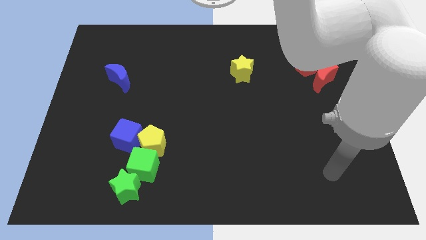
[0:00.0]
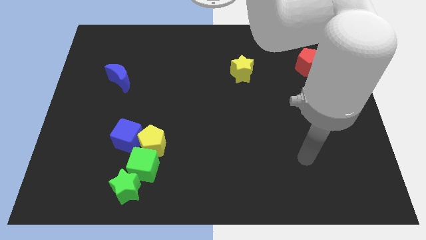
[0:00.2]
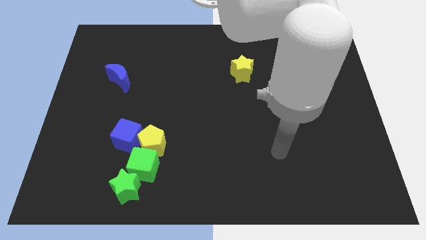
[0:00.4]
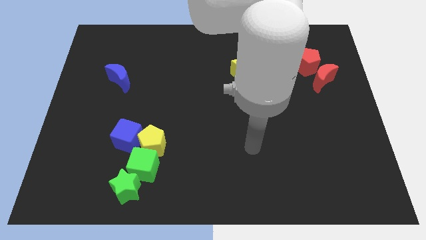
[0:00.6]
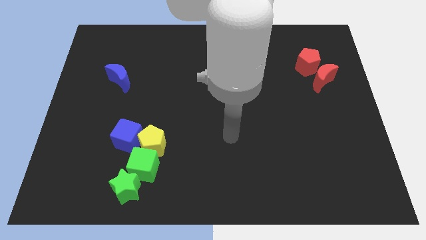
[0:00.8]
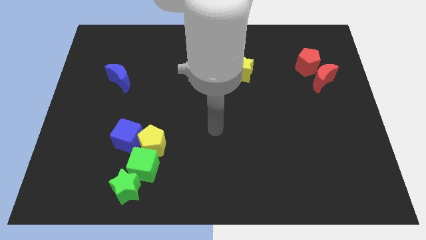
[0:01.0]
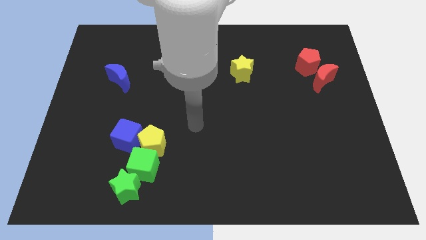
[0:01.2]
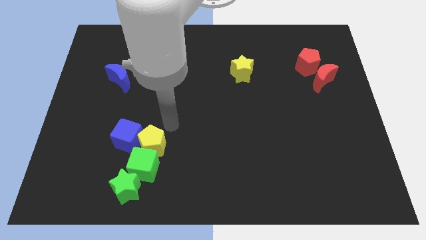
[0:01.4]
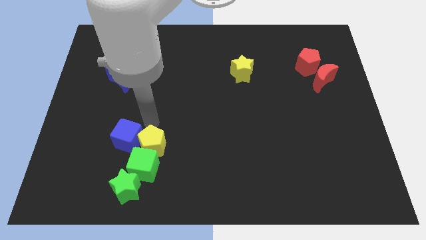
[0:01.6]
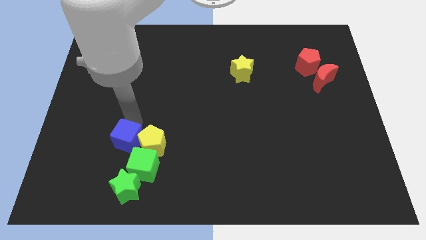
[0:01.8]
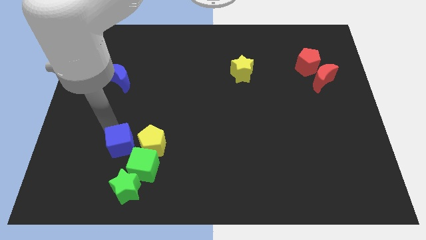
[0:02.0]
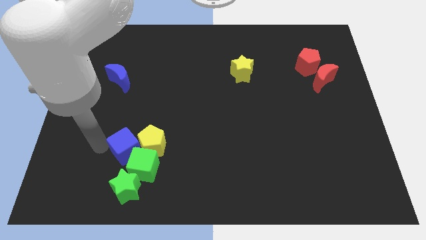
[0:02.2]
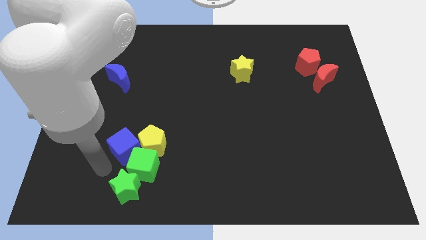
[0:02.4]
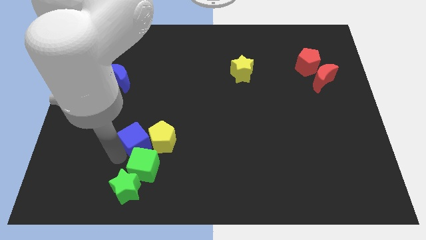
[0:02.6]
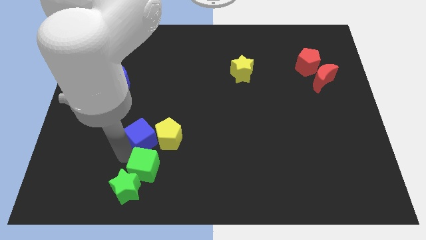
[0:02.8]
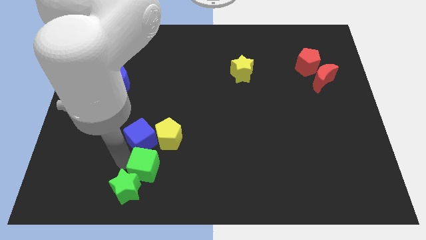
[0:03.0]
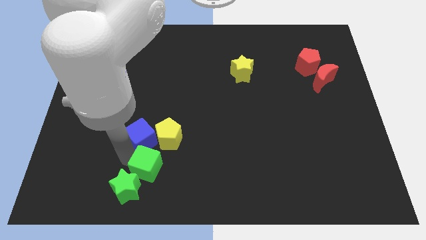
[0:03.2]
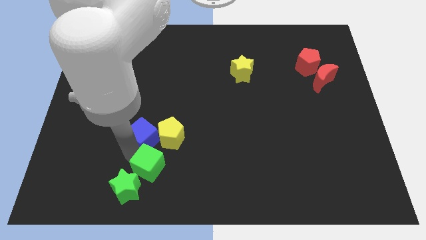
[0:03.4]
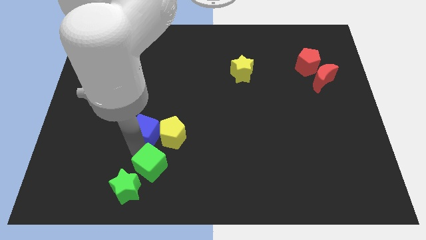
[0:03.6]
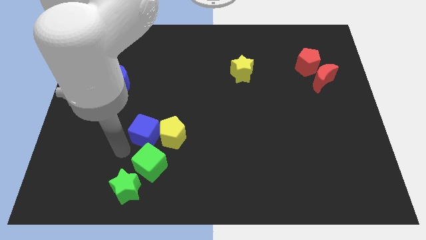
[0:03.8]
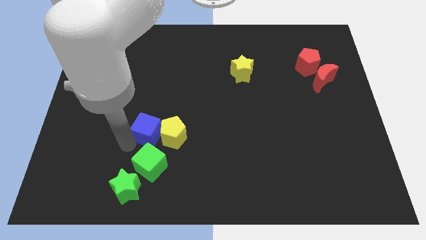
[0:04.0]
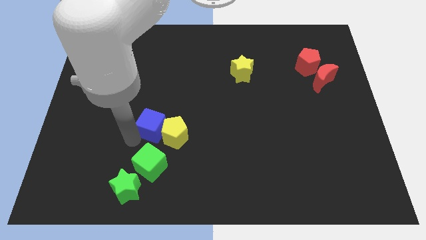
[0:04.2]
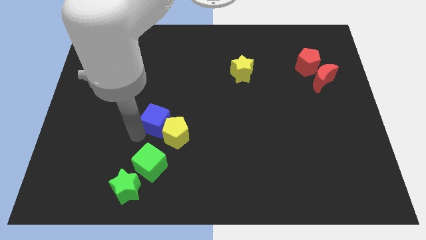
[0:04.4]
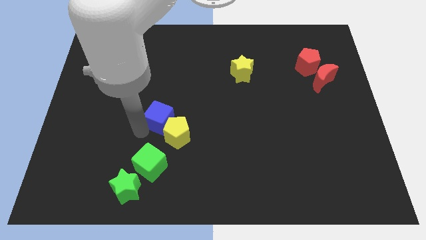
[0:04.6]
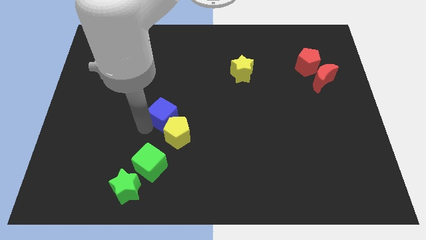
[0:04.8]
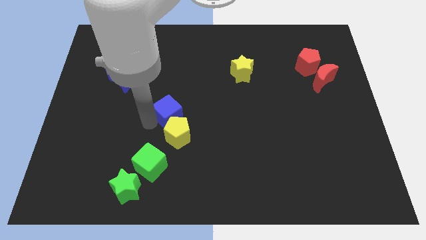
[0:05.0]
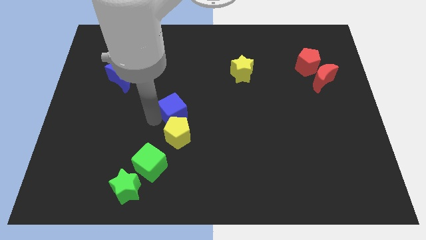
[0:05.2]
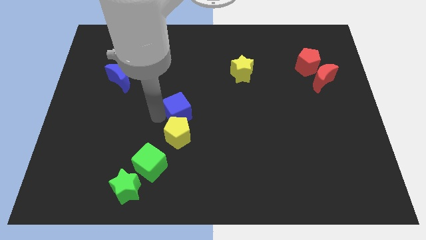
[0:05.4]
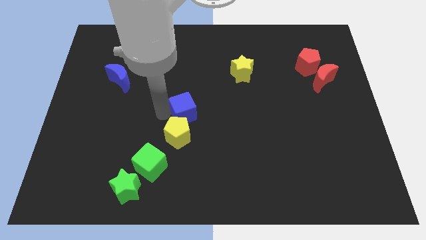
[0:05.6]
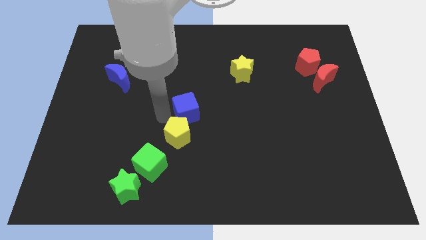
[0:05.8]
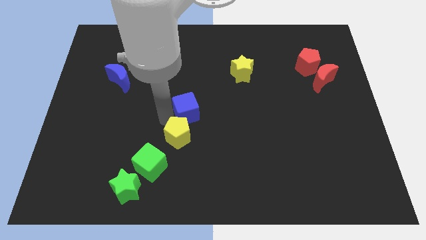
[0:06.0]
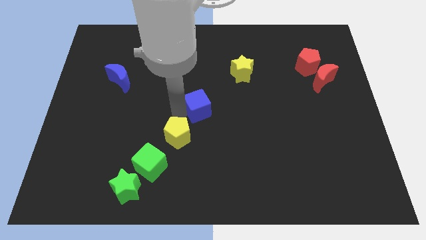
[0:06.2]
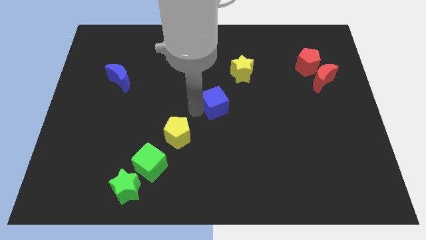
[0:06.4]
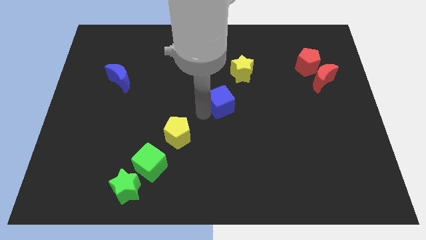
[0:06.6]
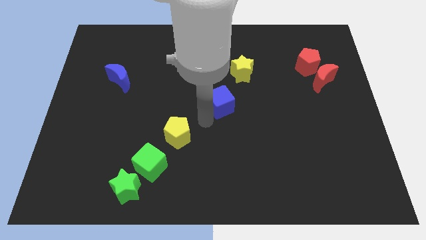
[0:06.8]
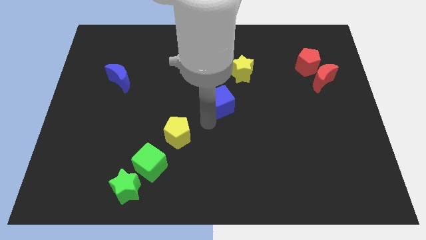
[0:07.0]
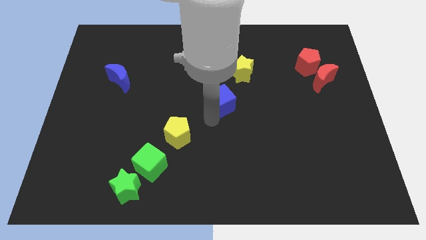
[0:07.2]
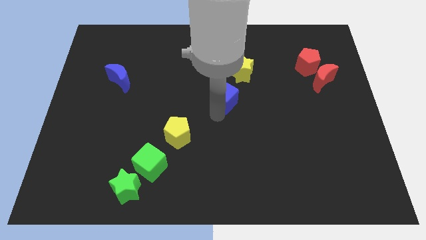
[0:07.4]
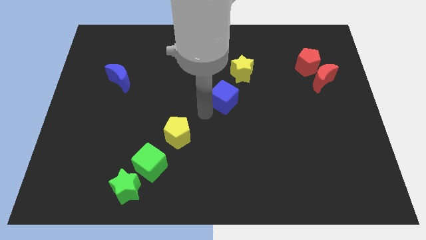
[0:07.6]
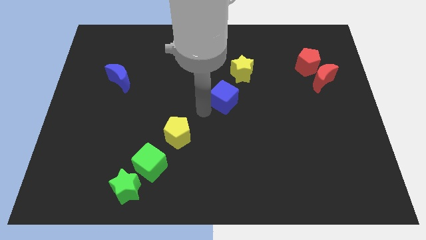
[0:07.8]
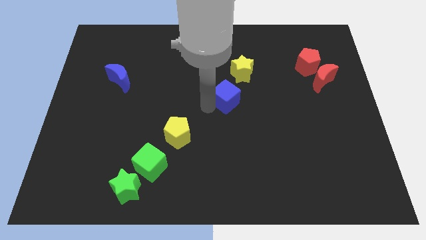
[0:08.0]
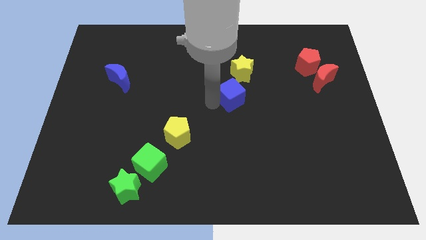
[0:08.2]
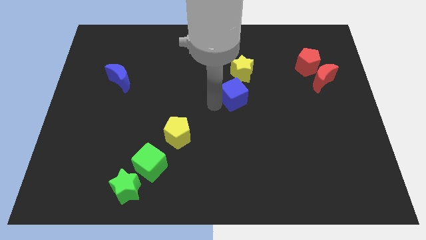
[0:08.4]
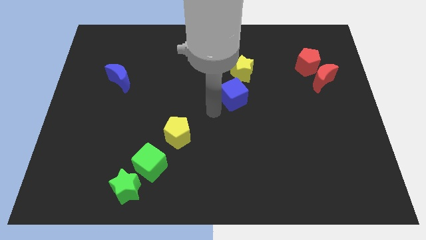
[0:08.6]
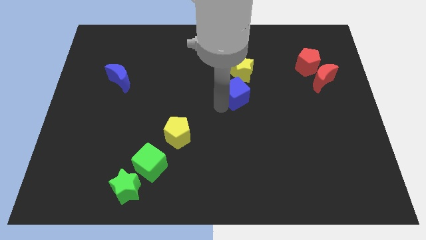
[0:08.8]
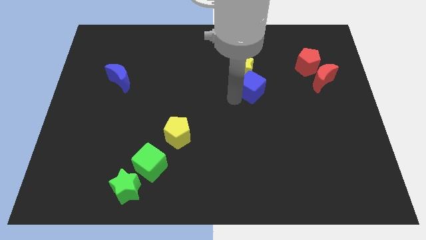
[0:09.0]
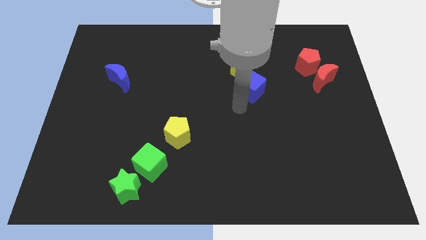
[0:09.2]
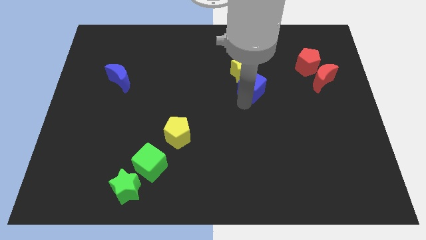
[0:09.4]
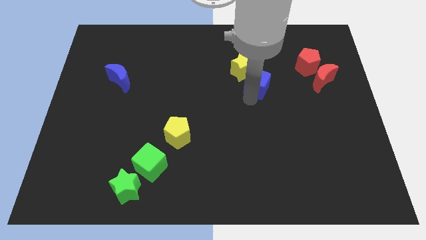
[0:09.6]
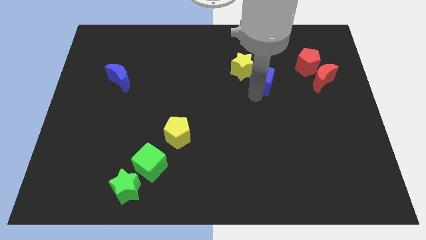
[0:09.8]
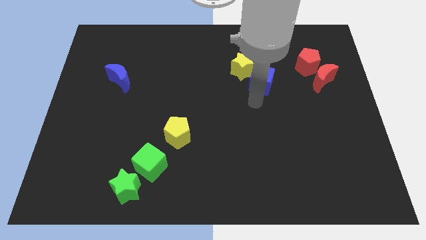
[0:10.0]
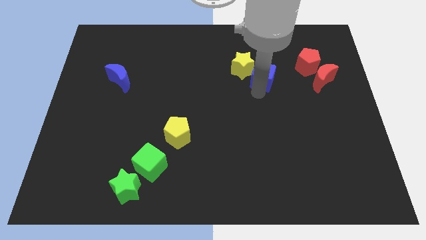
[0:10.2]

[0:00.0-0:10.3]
push the blue cube to the left side of the red pentagon

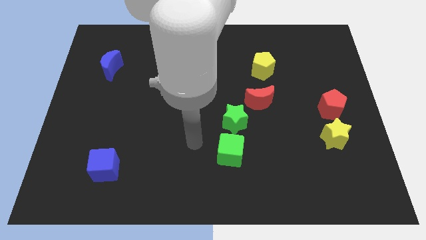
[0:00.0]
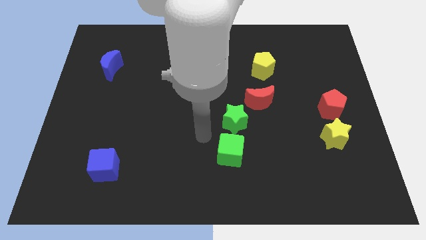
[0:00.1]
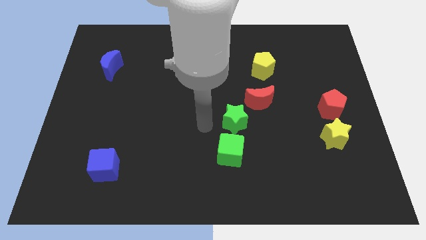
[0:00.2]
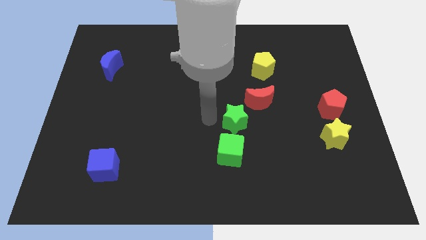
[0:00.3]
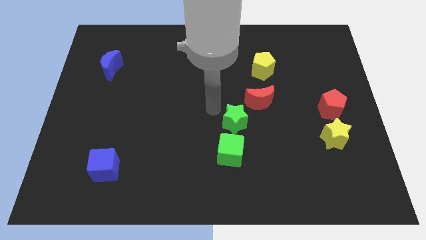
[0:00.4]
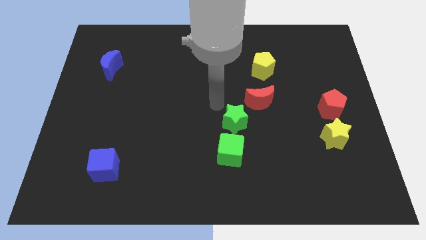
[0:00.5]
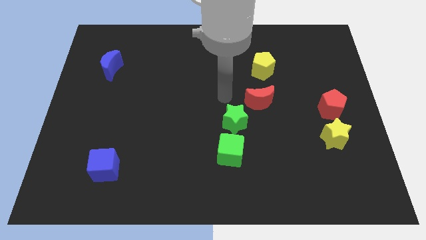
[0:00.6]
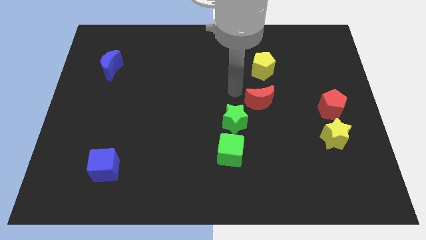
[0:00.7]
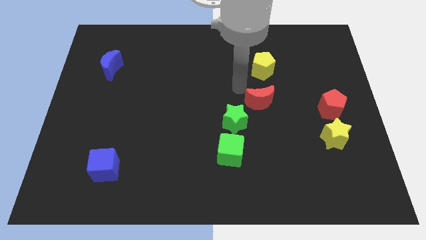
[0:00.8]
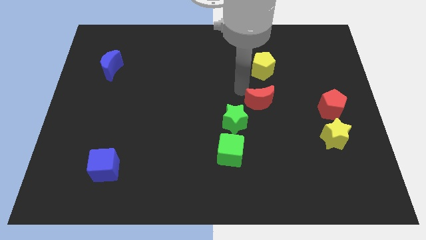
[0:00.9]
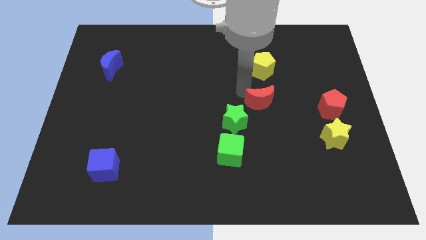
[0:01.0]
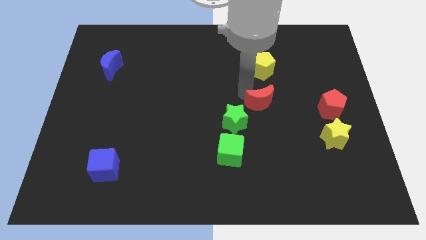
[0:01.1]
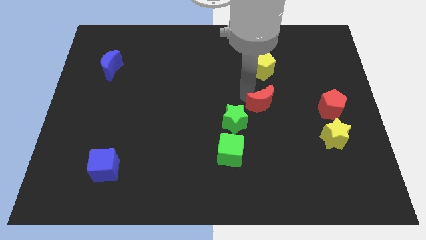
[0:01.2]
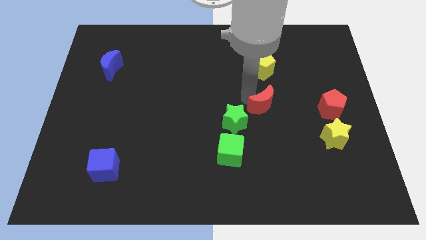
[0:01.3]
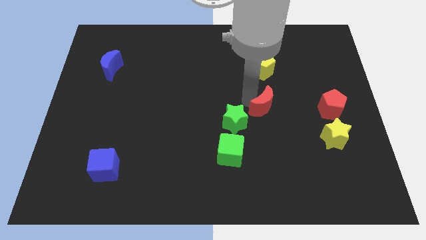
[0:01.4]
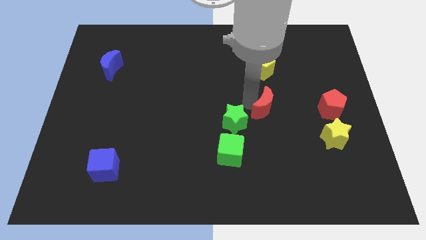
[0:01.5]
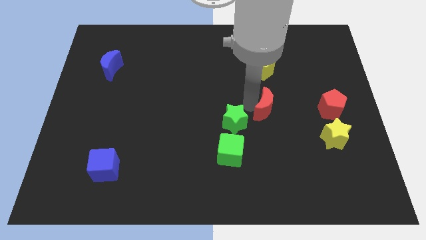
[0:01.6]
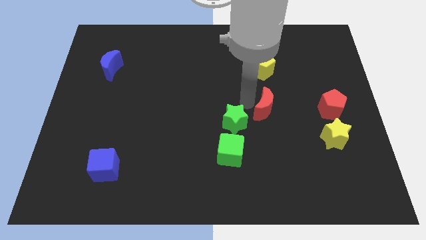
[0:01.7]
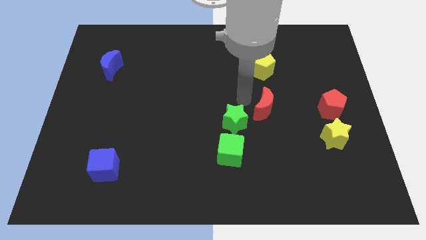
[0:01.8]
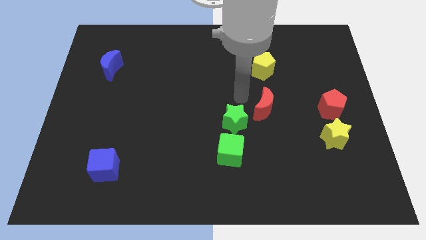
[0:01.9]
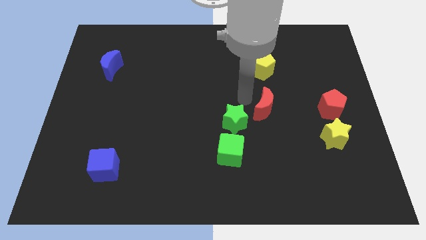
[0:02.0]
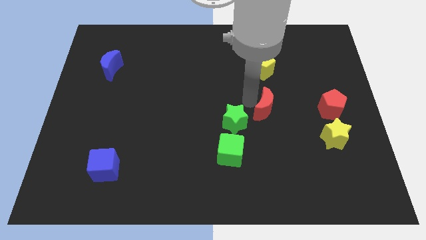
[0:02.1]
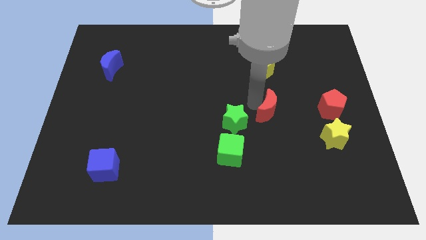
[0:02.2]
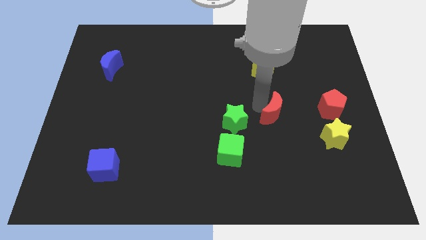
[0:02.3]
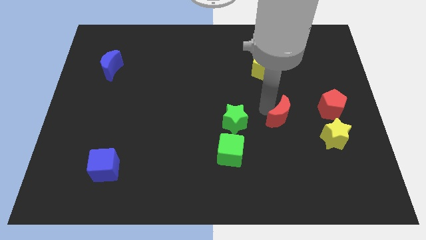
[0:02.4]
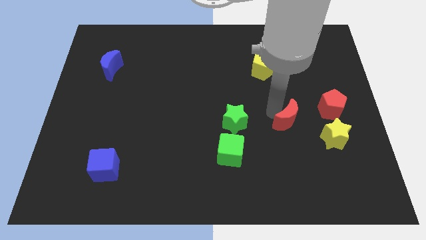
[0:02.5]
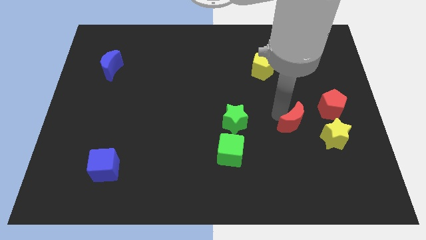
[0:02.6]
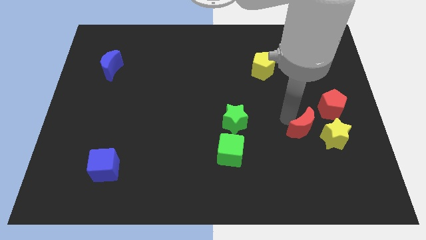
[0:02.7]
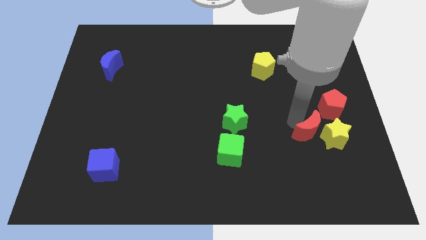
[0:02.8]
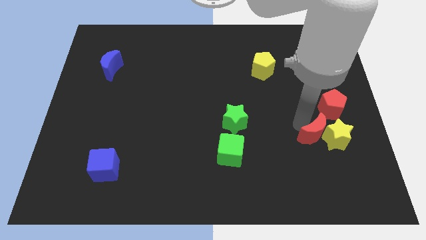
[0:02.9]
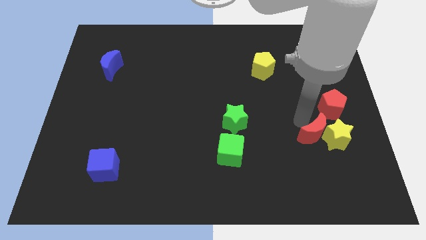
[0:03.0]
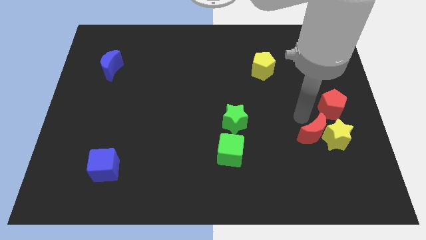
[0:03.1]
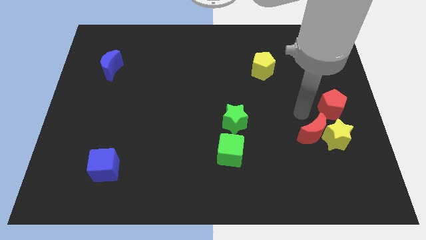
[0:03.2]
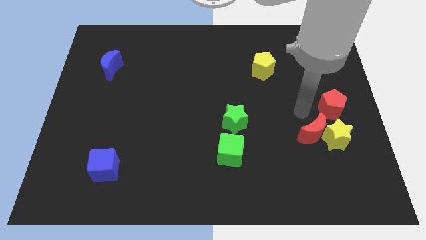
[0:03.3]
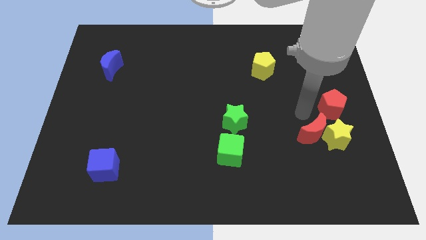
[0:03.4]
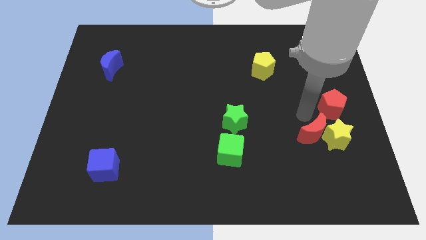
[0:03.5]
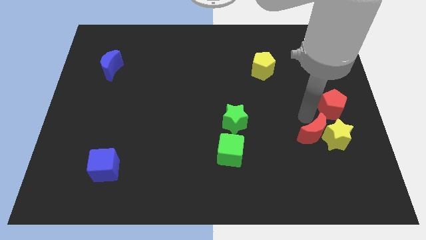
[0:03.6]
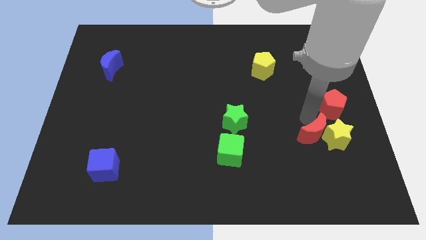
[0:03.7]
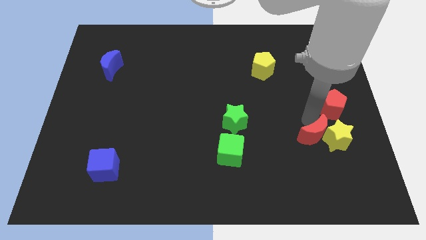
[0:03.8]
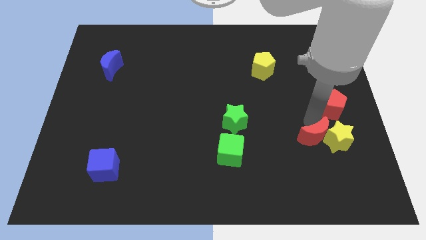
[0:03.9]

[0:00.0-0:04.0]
move the red moon below the red pentagon
